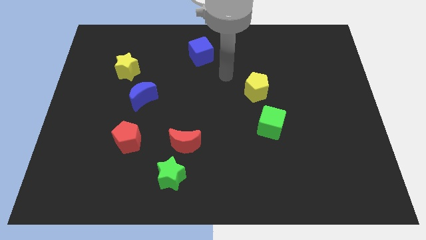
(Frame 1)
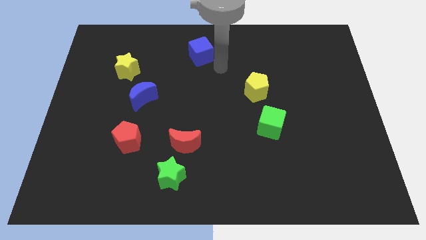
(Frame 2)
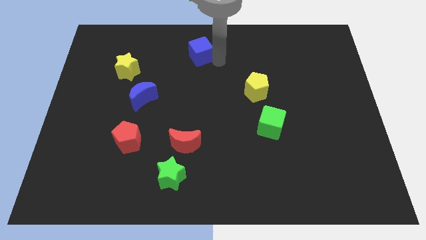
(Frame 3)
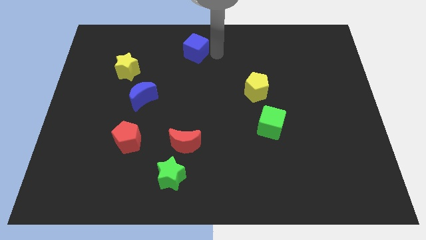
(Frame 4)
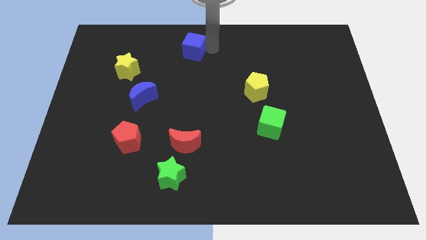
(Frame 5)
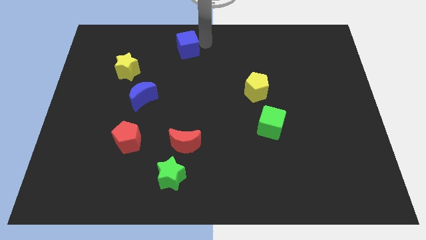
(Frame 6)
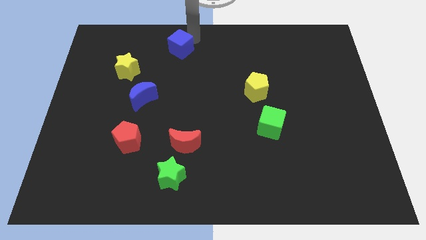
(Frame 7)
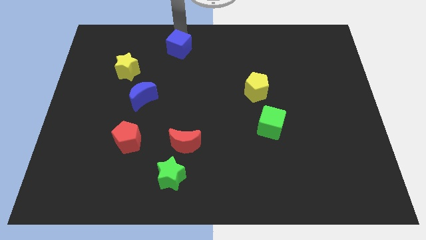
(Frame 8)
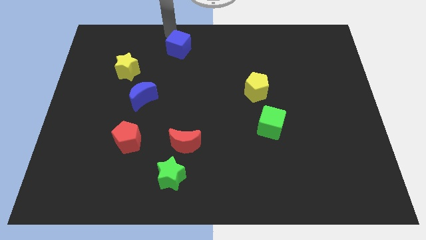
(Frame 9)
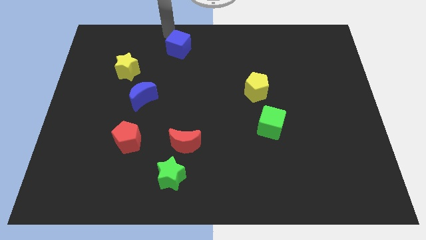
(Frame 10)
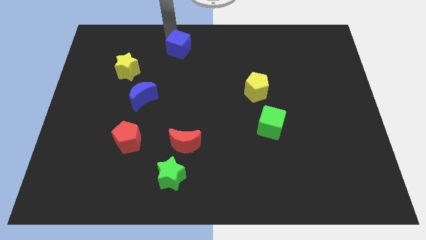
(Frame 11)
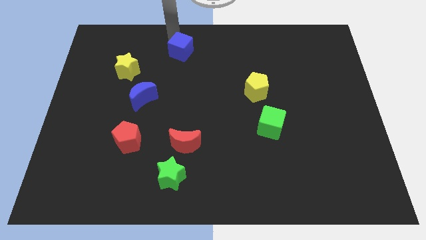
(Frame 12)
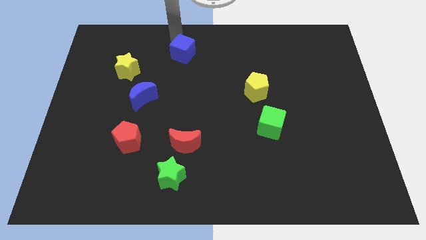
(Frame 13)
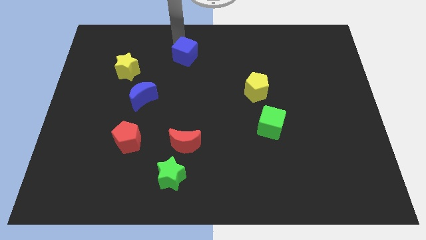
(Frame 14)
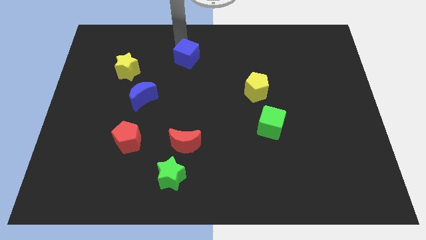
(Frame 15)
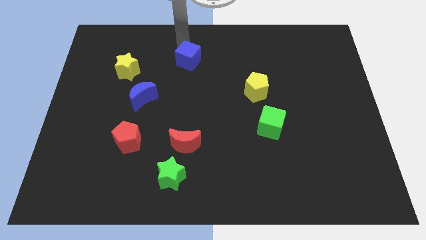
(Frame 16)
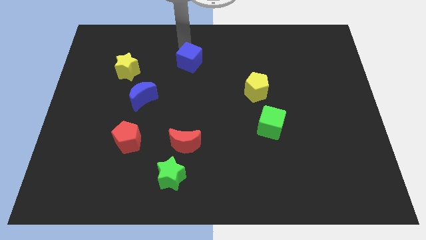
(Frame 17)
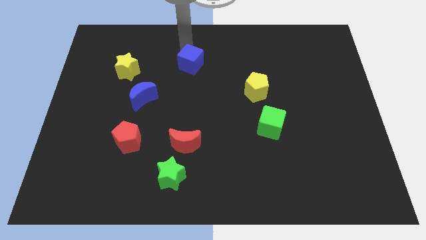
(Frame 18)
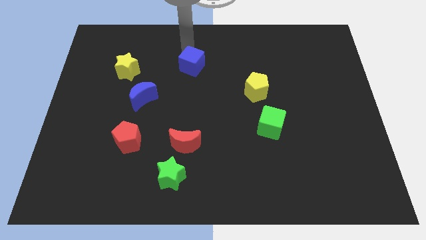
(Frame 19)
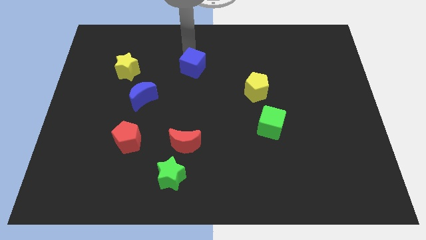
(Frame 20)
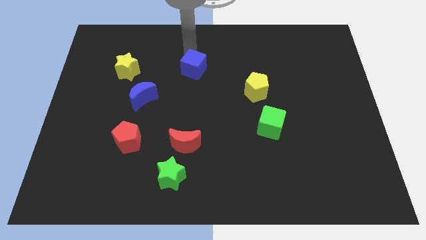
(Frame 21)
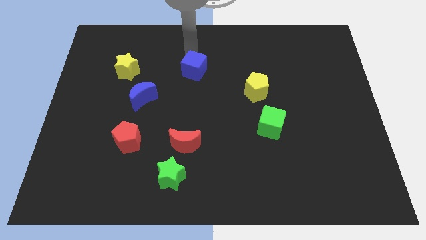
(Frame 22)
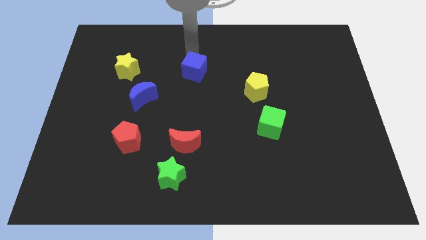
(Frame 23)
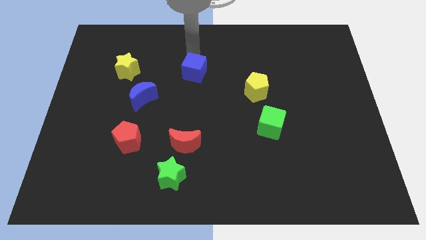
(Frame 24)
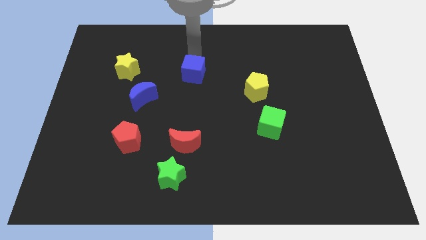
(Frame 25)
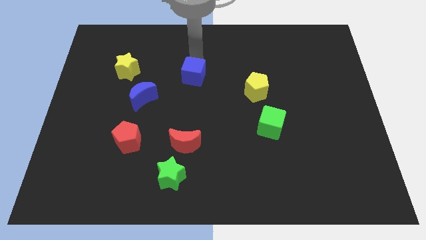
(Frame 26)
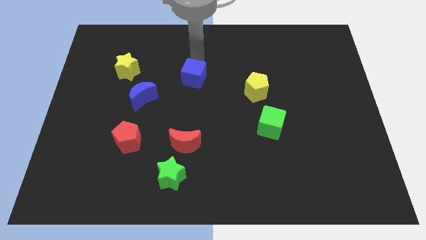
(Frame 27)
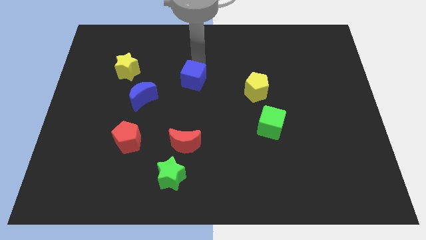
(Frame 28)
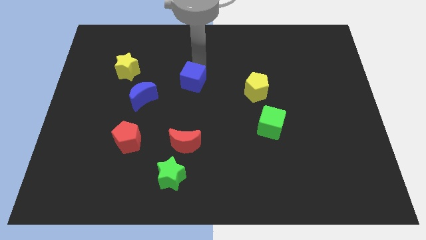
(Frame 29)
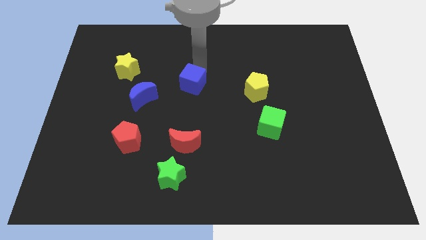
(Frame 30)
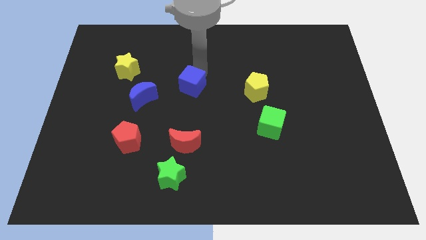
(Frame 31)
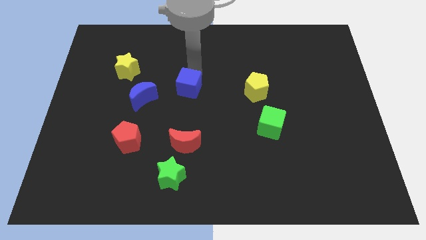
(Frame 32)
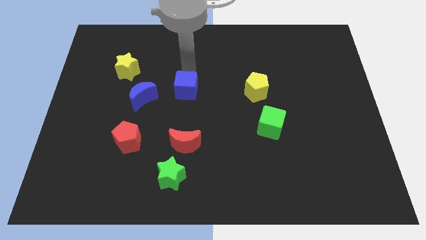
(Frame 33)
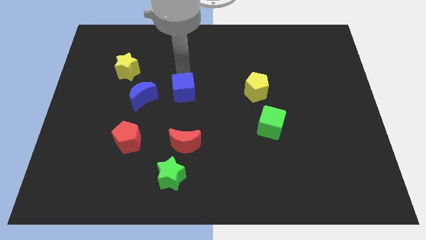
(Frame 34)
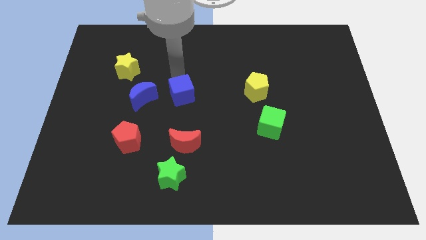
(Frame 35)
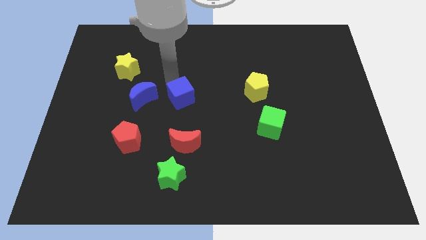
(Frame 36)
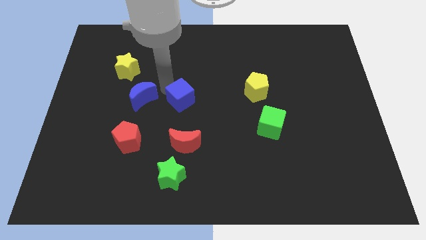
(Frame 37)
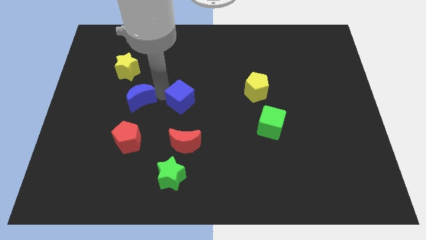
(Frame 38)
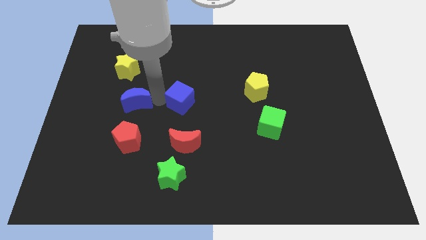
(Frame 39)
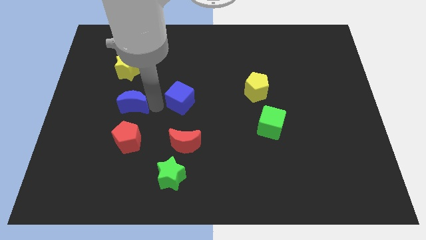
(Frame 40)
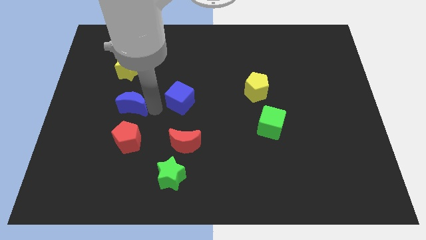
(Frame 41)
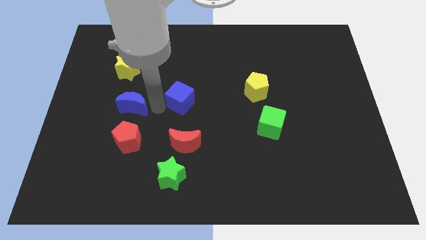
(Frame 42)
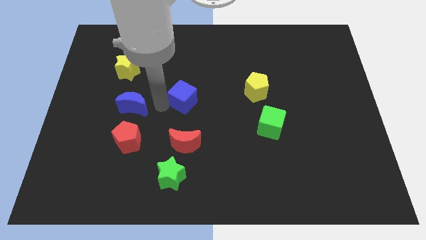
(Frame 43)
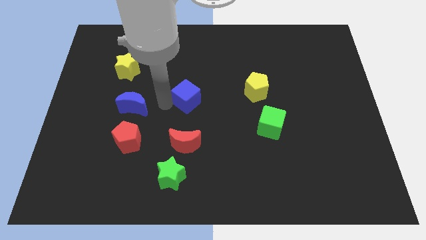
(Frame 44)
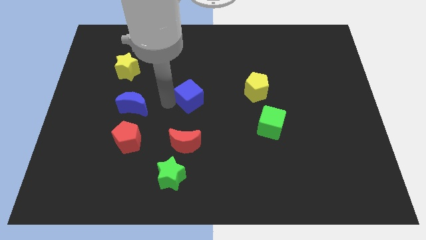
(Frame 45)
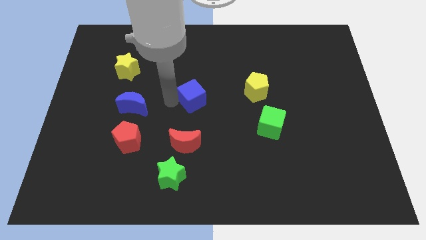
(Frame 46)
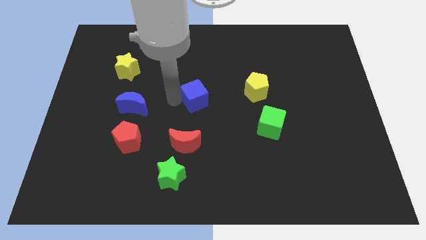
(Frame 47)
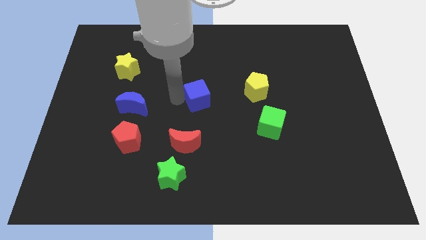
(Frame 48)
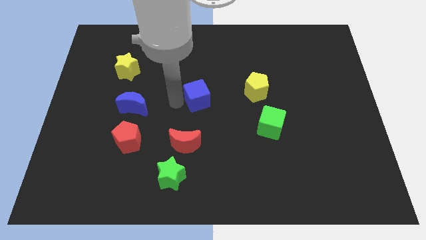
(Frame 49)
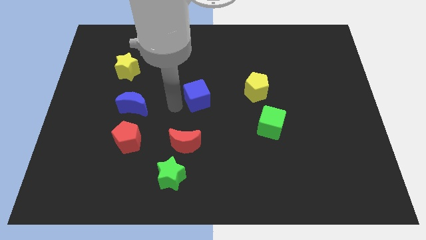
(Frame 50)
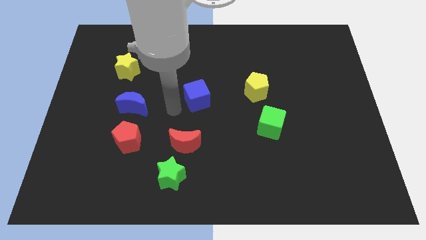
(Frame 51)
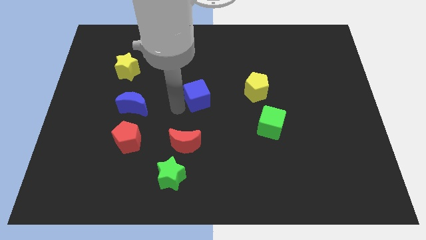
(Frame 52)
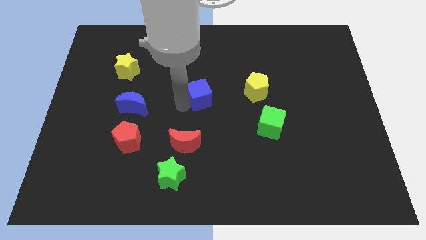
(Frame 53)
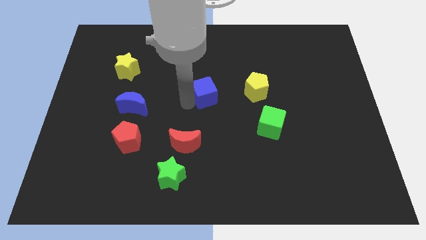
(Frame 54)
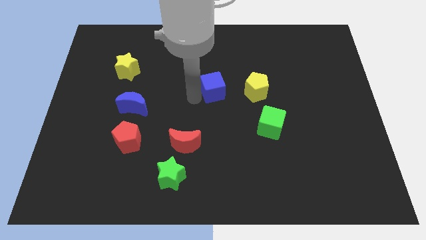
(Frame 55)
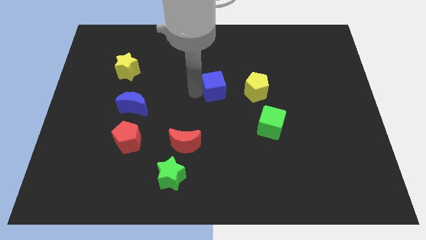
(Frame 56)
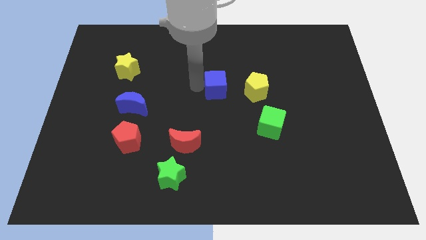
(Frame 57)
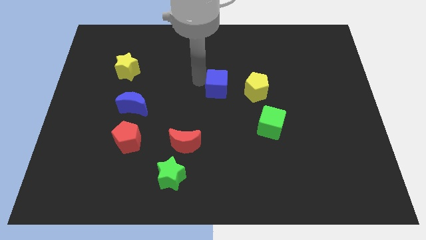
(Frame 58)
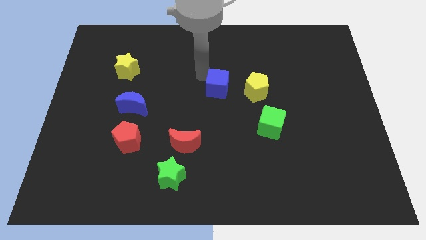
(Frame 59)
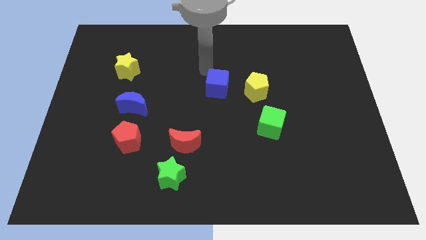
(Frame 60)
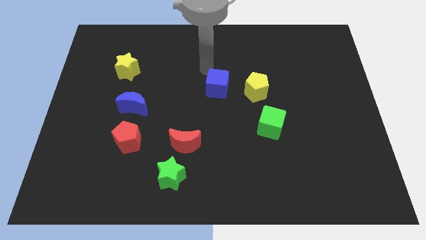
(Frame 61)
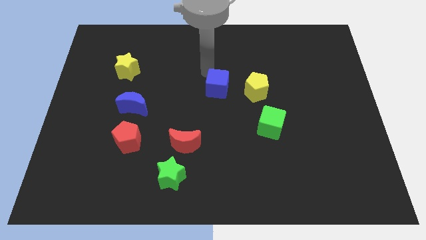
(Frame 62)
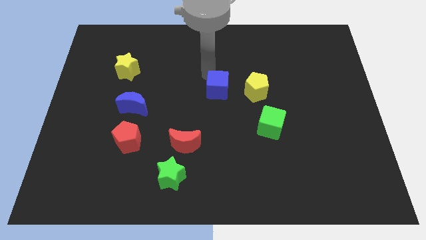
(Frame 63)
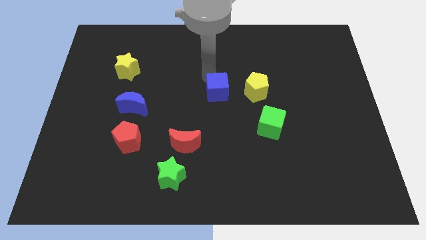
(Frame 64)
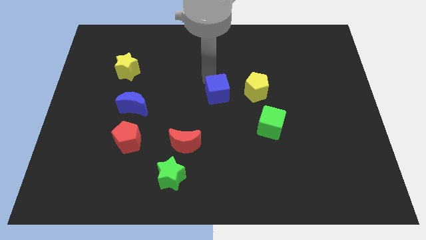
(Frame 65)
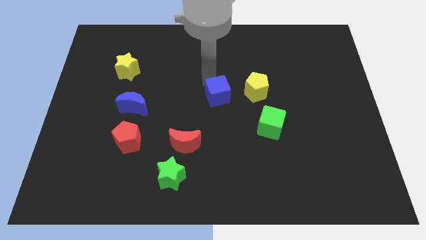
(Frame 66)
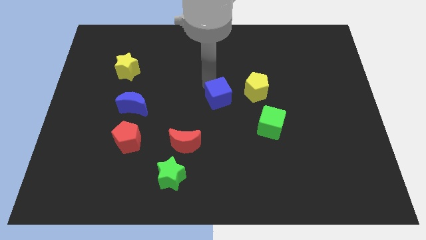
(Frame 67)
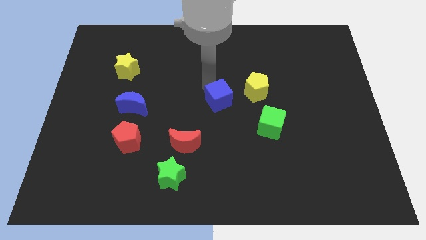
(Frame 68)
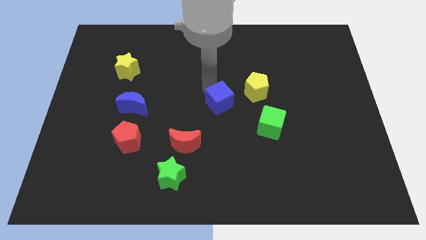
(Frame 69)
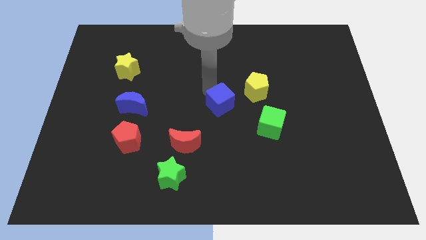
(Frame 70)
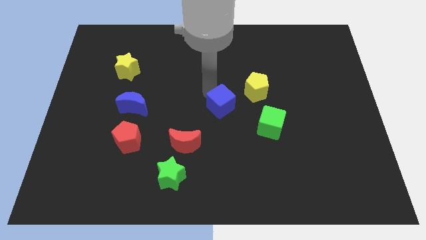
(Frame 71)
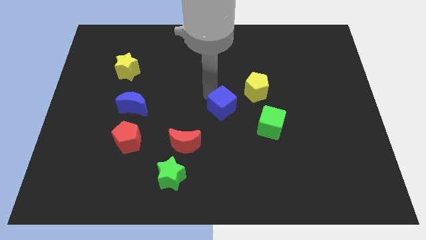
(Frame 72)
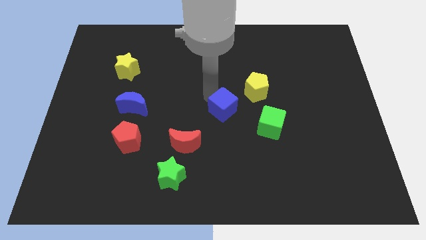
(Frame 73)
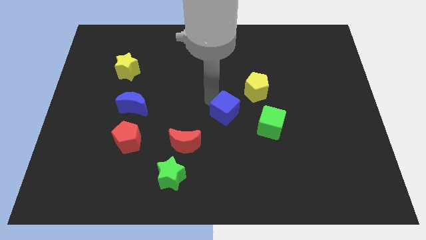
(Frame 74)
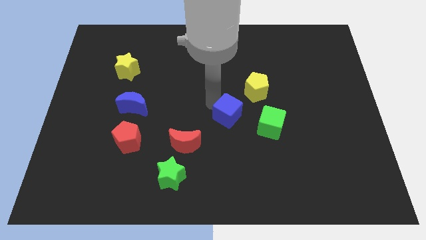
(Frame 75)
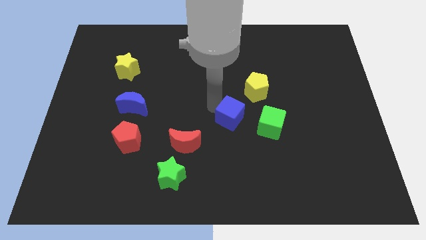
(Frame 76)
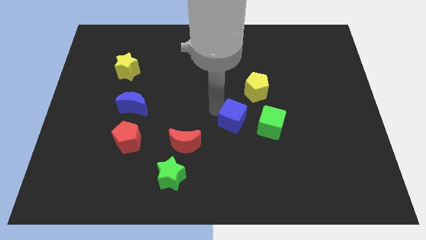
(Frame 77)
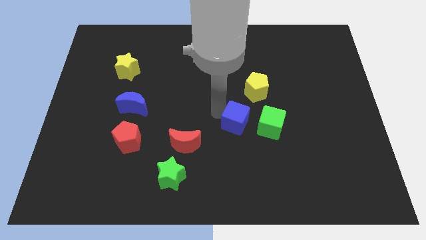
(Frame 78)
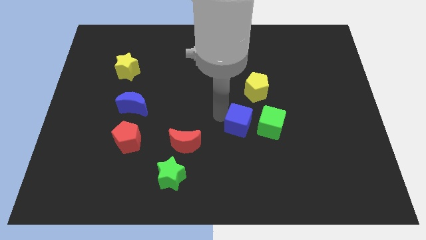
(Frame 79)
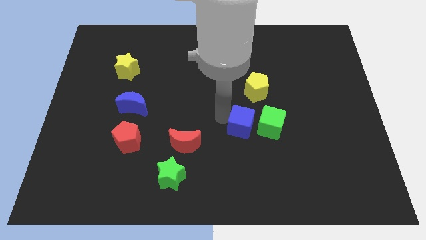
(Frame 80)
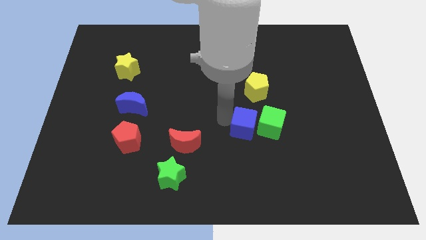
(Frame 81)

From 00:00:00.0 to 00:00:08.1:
put the blue cube towards the green cube
